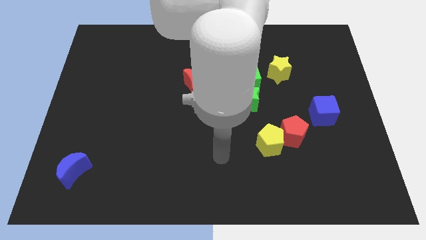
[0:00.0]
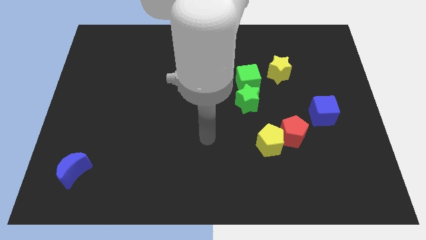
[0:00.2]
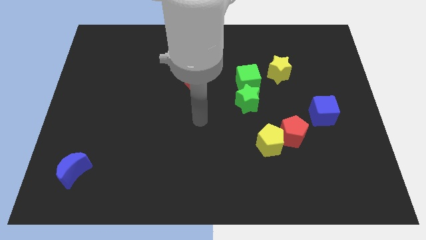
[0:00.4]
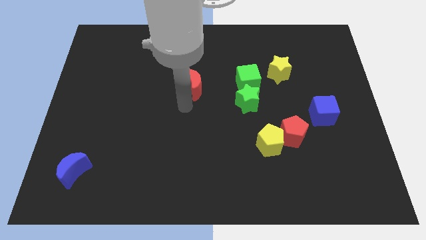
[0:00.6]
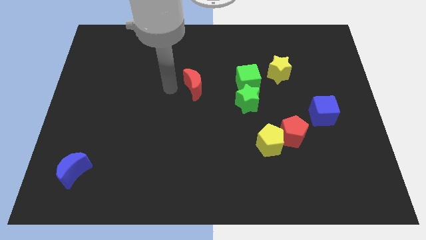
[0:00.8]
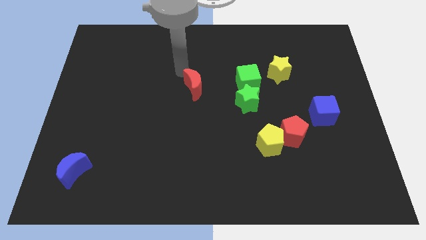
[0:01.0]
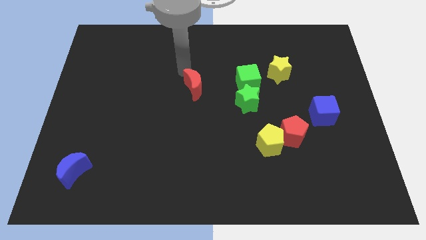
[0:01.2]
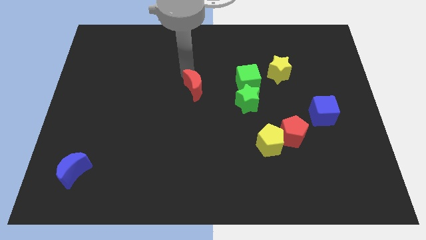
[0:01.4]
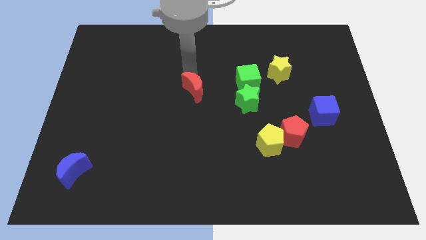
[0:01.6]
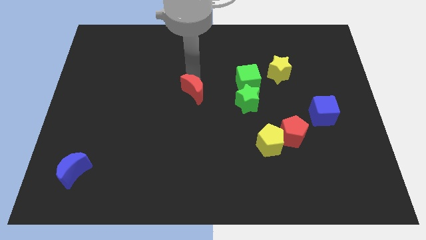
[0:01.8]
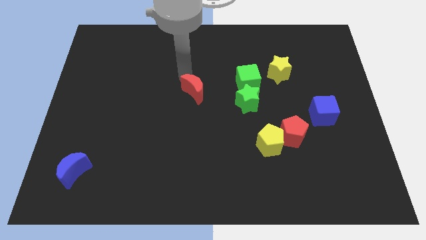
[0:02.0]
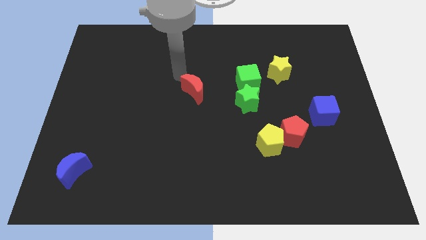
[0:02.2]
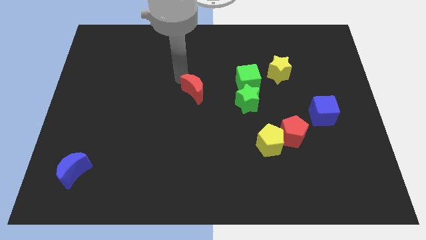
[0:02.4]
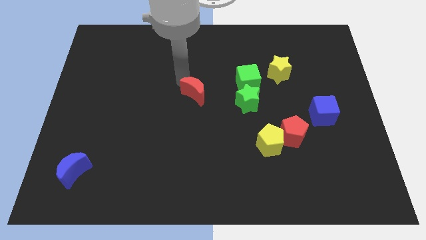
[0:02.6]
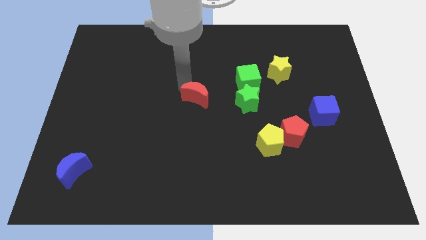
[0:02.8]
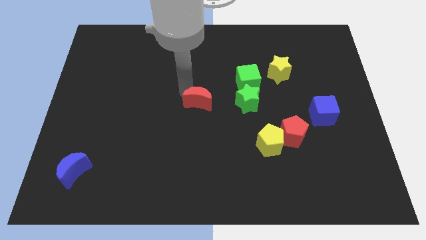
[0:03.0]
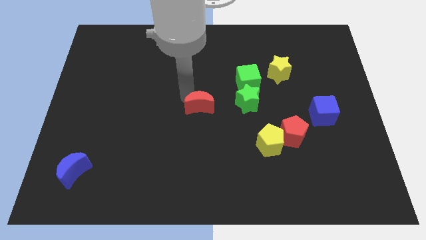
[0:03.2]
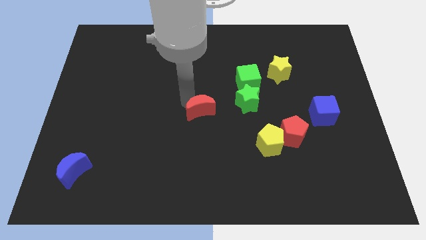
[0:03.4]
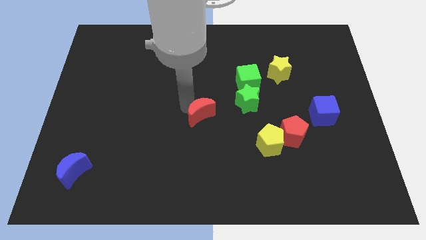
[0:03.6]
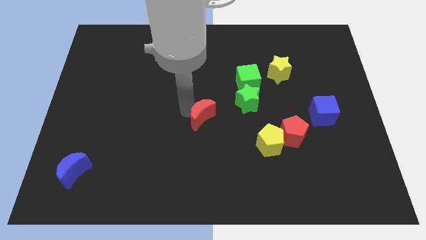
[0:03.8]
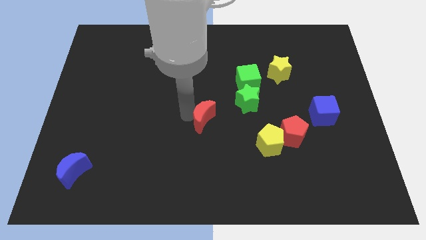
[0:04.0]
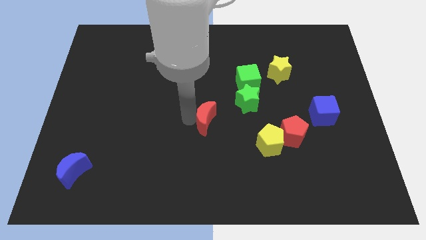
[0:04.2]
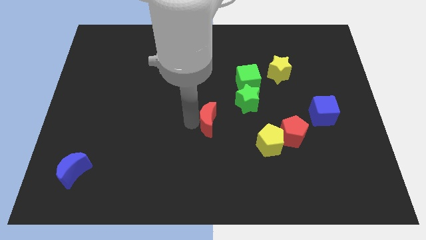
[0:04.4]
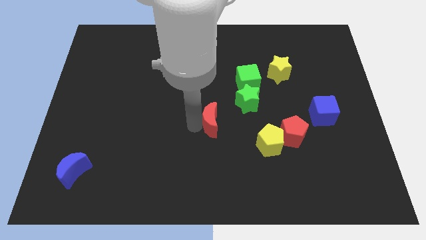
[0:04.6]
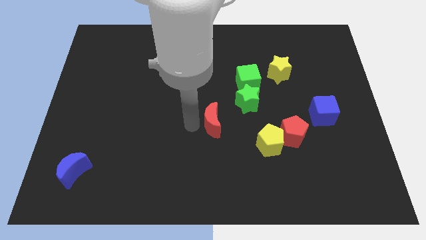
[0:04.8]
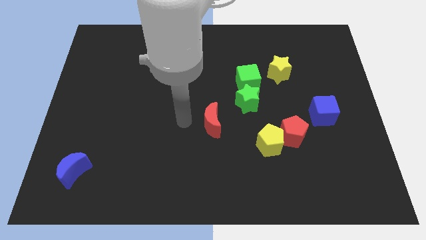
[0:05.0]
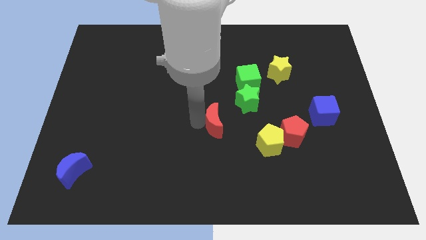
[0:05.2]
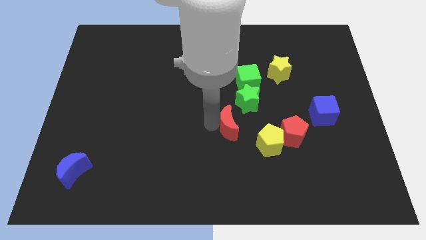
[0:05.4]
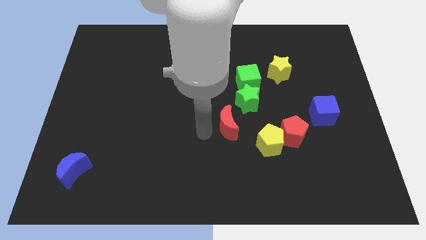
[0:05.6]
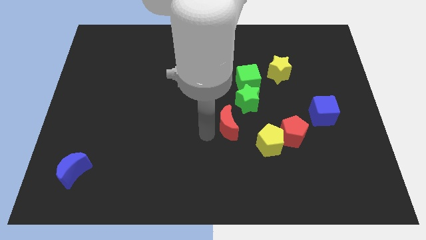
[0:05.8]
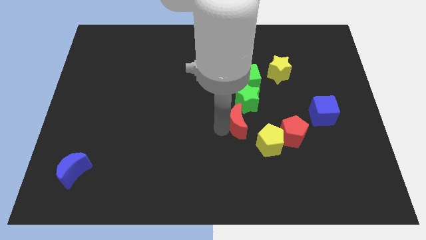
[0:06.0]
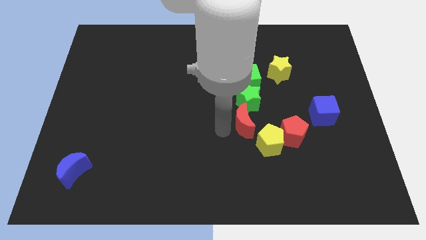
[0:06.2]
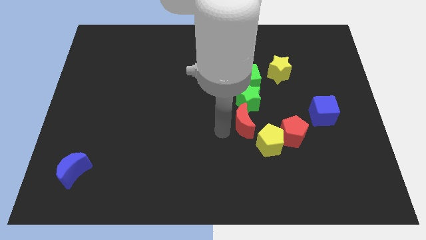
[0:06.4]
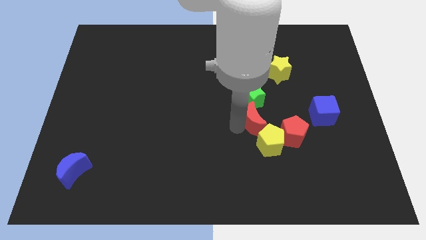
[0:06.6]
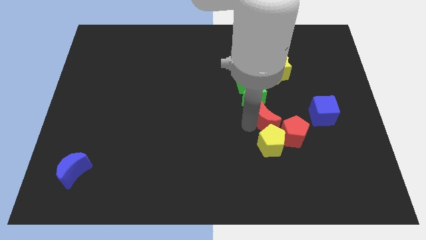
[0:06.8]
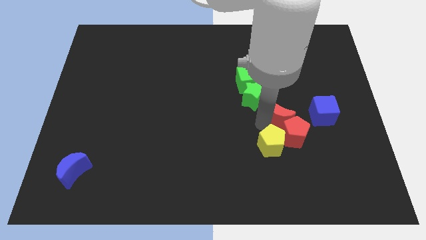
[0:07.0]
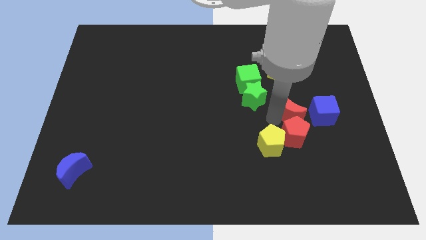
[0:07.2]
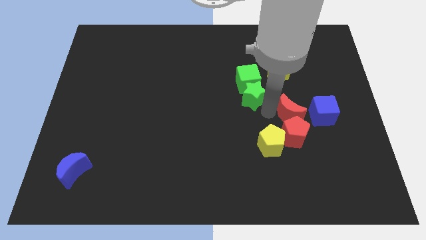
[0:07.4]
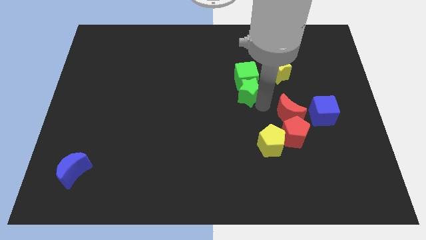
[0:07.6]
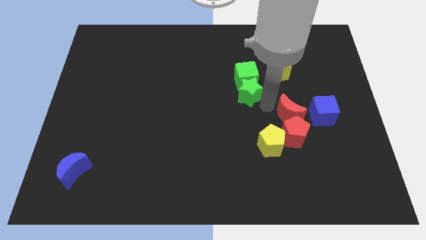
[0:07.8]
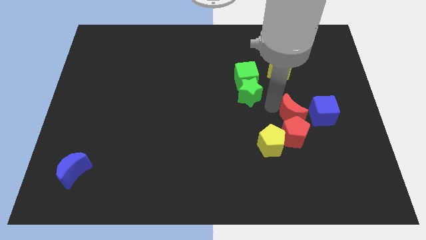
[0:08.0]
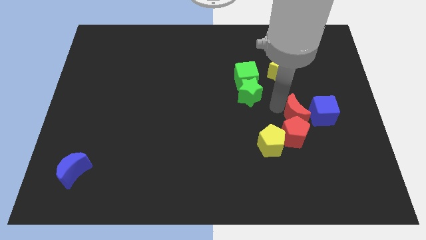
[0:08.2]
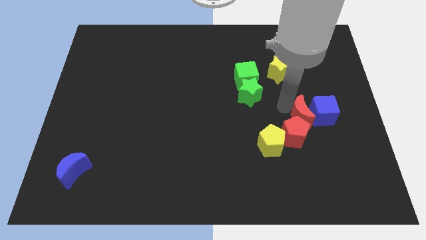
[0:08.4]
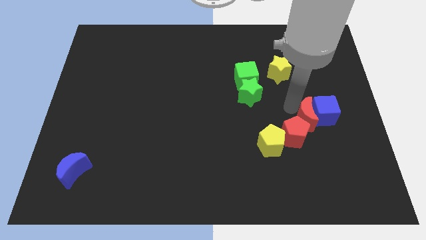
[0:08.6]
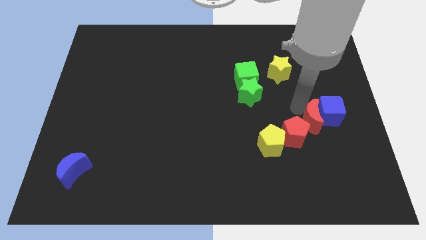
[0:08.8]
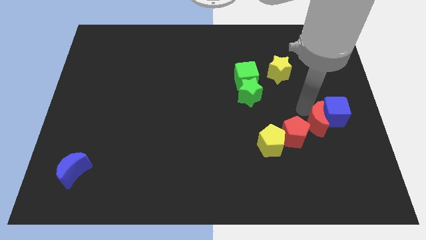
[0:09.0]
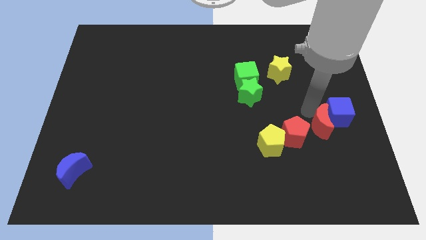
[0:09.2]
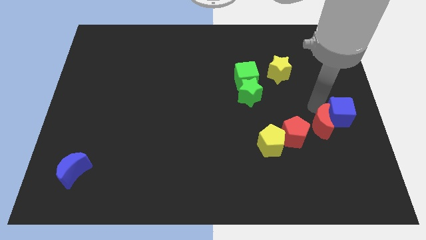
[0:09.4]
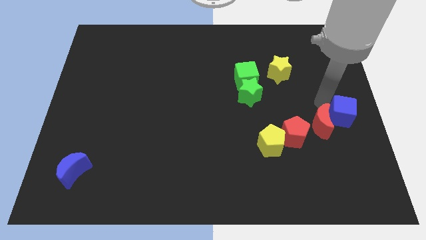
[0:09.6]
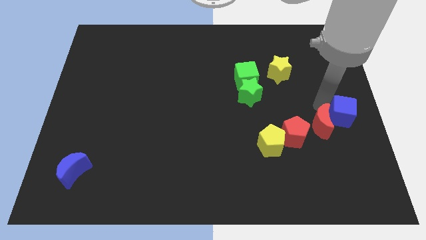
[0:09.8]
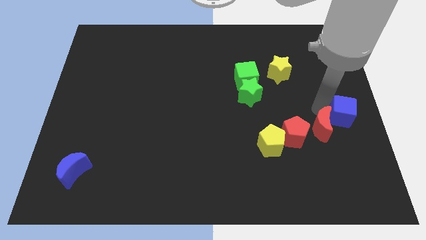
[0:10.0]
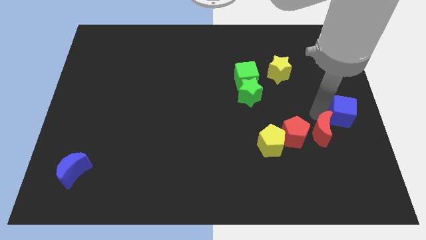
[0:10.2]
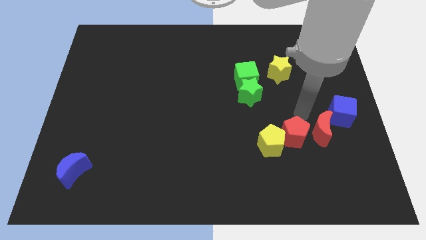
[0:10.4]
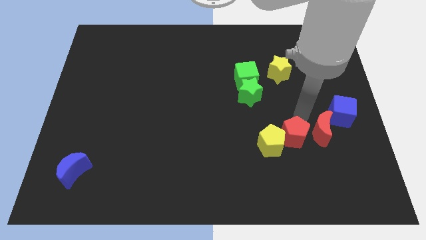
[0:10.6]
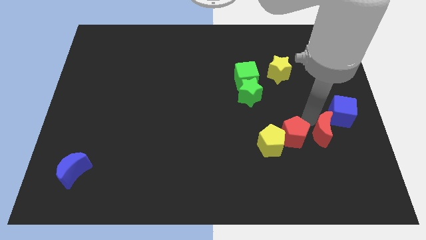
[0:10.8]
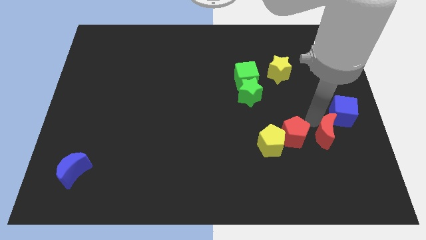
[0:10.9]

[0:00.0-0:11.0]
push the red moon to the bottom side of the blue cube

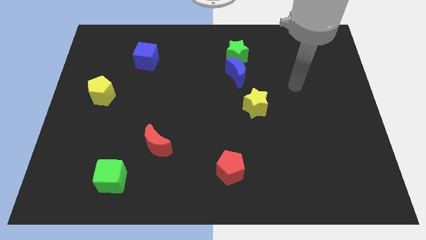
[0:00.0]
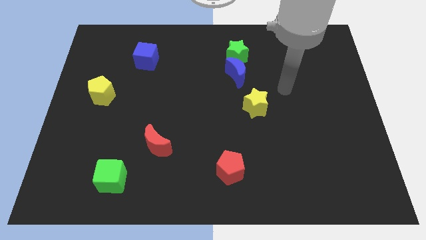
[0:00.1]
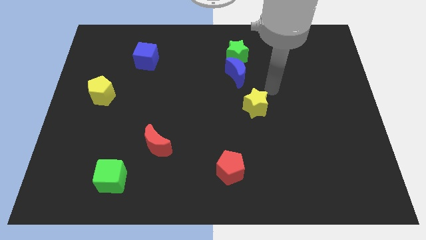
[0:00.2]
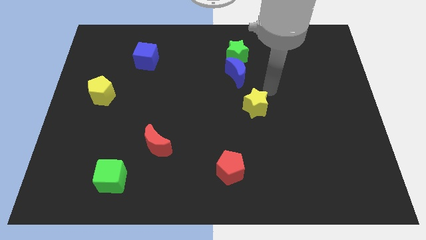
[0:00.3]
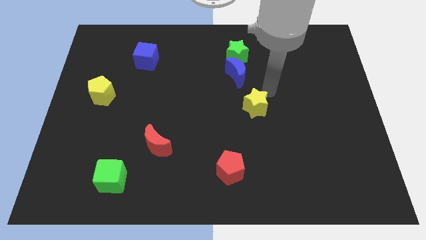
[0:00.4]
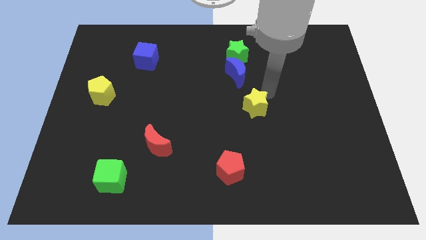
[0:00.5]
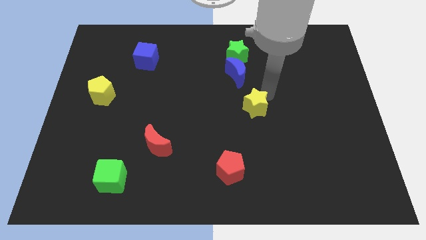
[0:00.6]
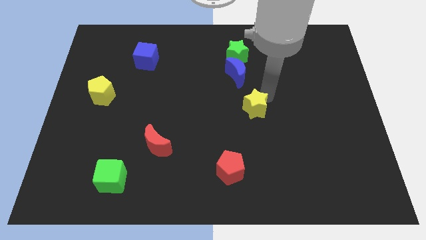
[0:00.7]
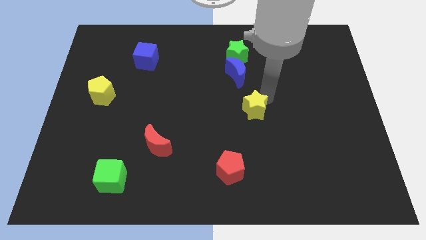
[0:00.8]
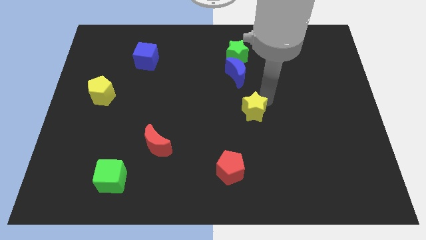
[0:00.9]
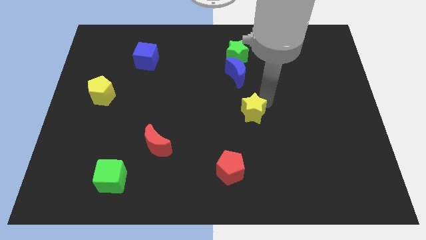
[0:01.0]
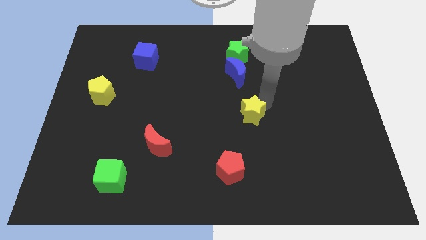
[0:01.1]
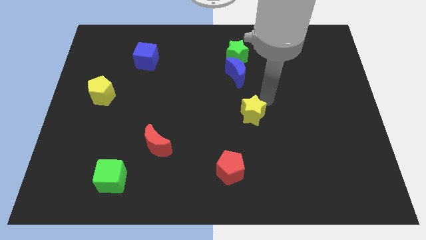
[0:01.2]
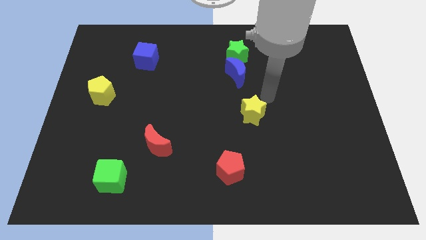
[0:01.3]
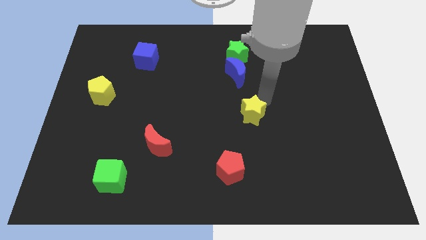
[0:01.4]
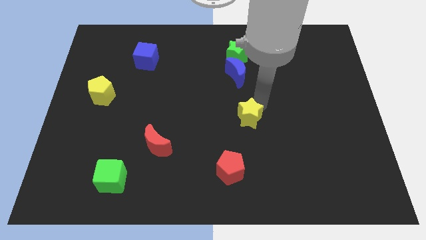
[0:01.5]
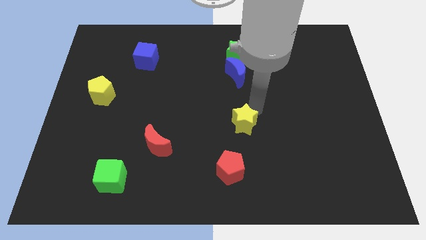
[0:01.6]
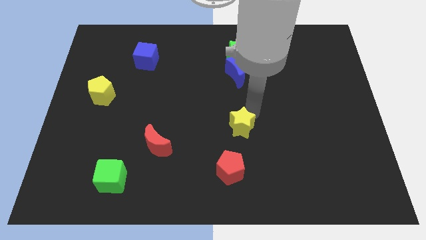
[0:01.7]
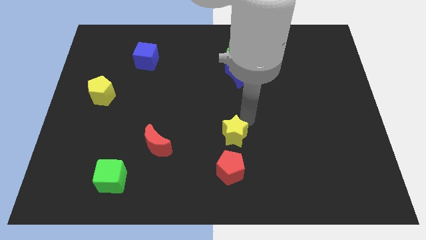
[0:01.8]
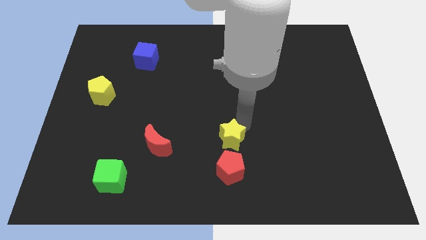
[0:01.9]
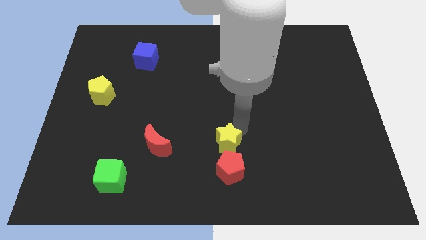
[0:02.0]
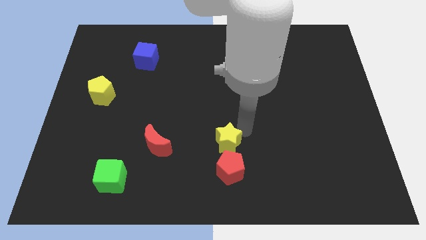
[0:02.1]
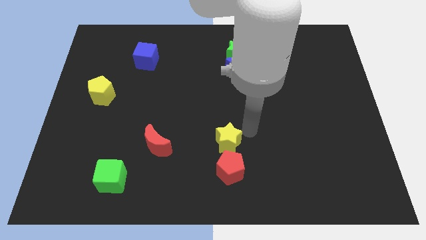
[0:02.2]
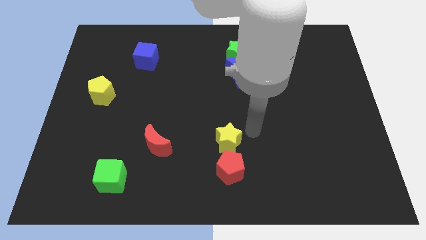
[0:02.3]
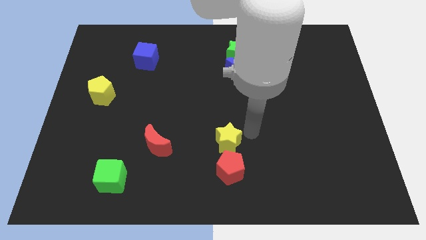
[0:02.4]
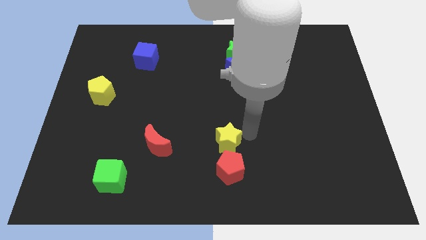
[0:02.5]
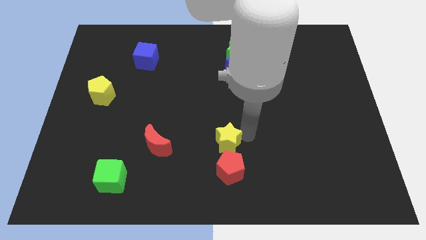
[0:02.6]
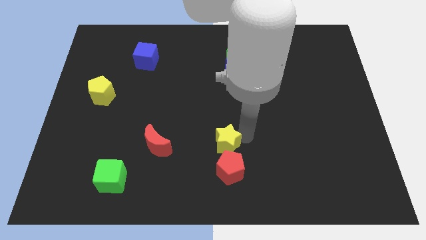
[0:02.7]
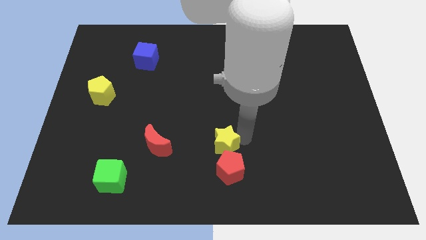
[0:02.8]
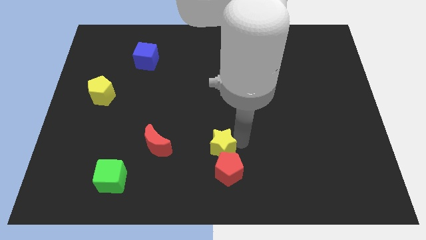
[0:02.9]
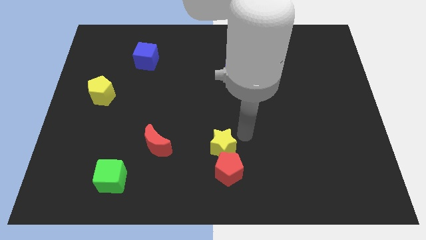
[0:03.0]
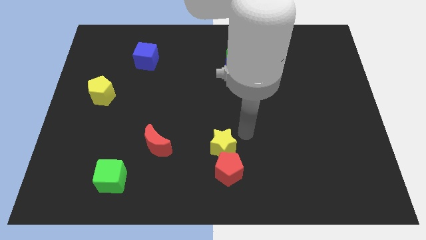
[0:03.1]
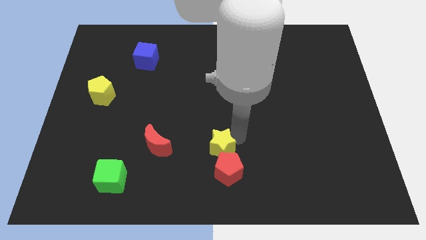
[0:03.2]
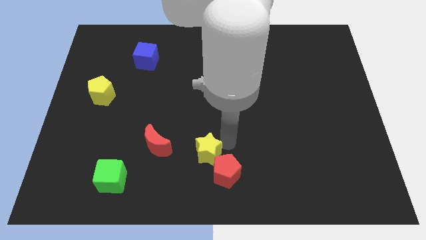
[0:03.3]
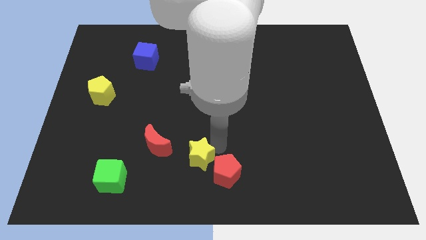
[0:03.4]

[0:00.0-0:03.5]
slide the yellow star left of the red pentagon
